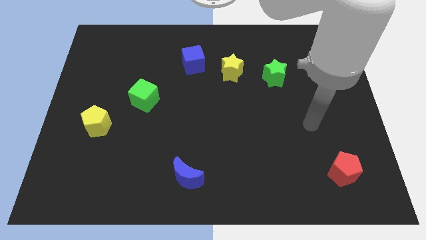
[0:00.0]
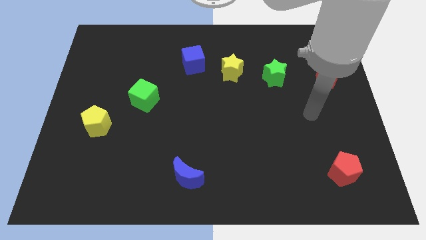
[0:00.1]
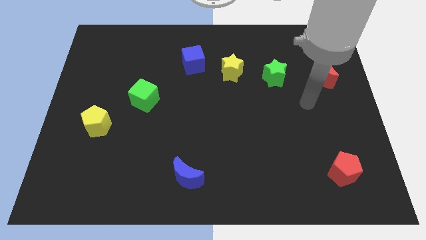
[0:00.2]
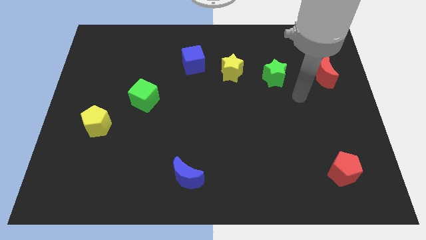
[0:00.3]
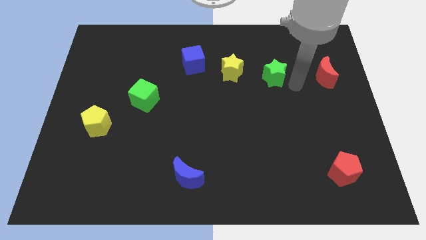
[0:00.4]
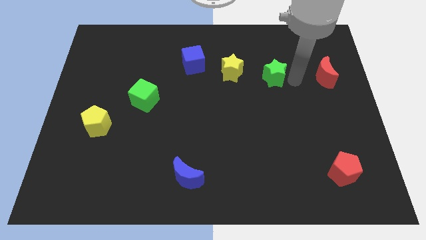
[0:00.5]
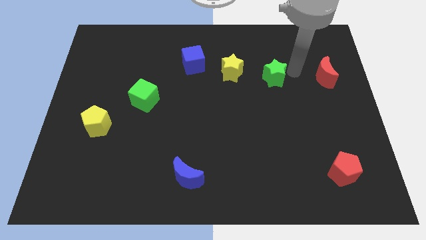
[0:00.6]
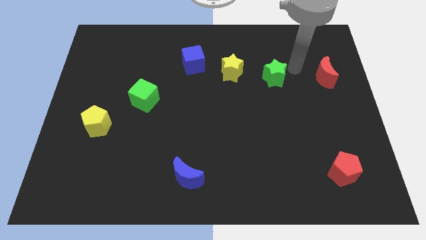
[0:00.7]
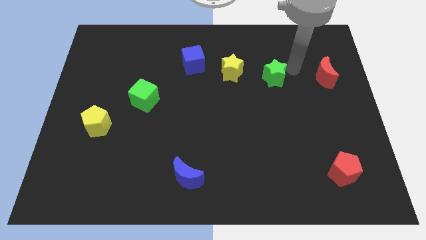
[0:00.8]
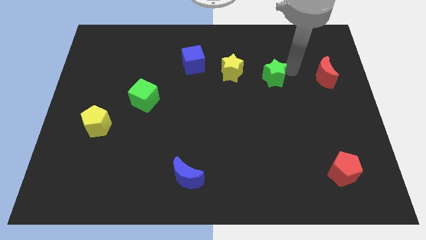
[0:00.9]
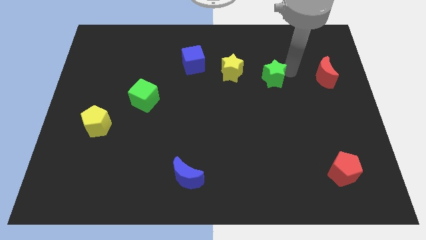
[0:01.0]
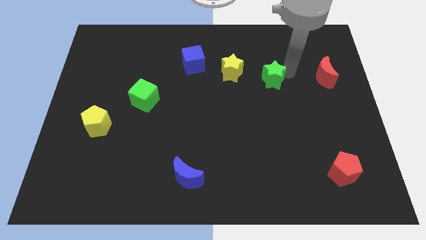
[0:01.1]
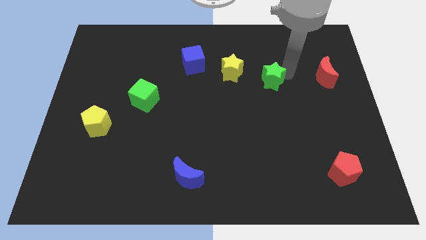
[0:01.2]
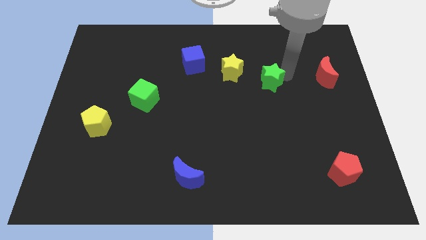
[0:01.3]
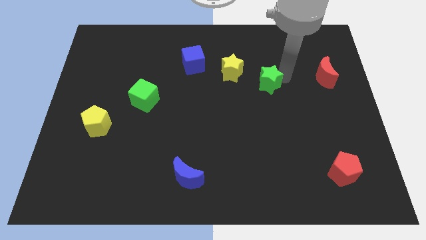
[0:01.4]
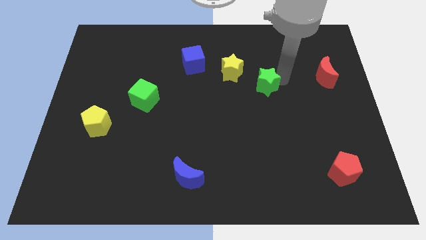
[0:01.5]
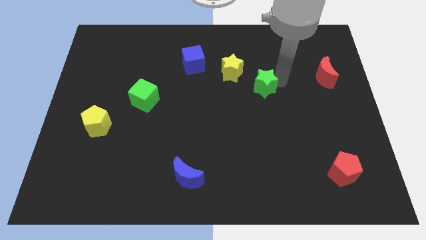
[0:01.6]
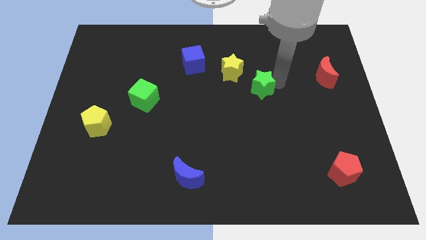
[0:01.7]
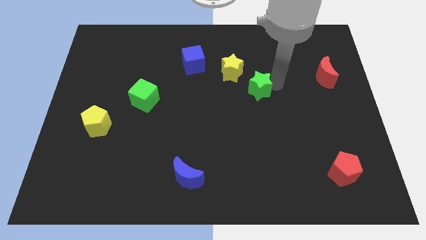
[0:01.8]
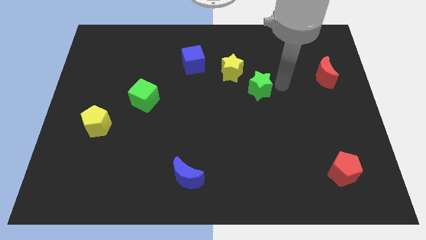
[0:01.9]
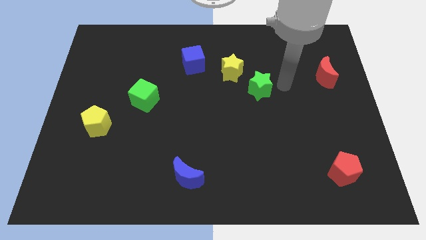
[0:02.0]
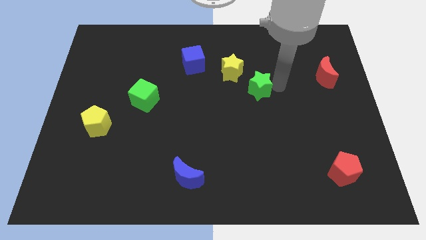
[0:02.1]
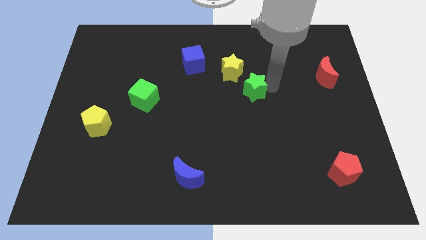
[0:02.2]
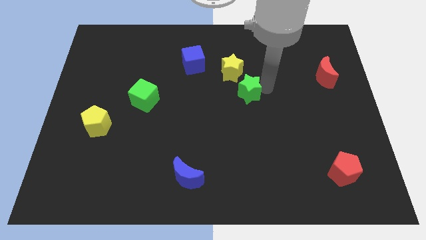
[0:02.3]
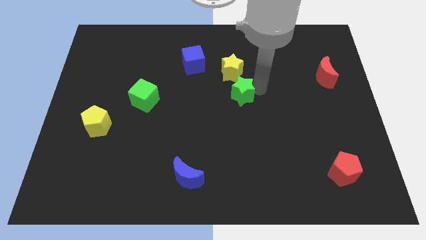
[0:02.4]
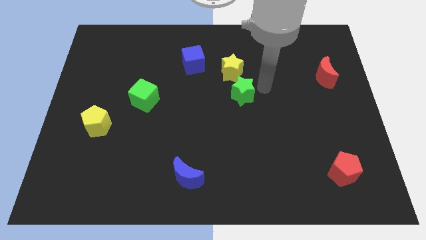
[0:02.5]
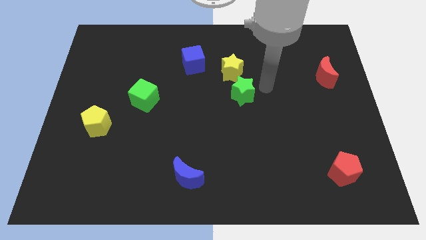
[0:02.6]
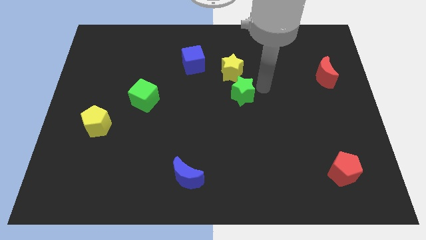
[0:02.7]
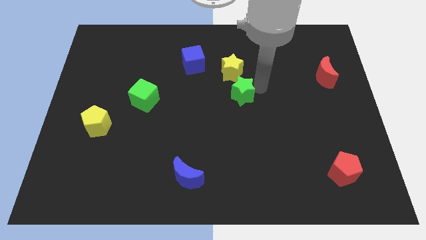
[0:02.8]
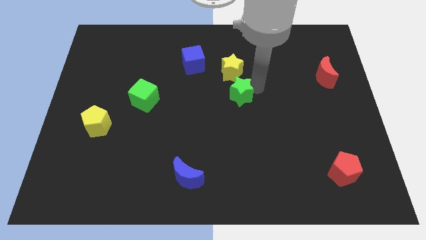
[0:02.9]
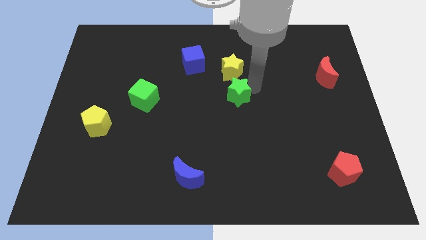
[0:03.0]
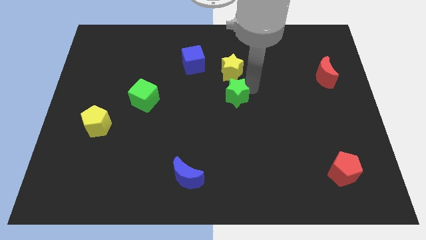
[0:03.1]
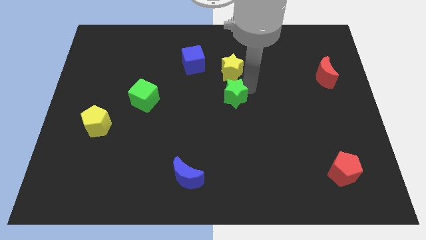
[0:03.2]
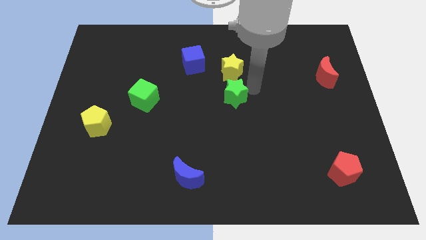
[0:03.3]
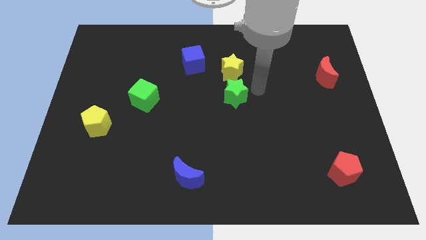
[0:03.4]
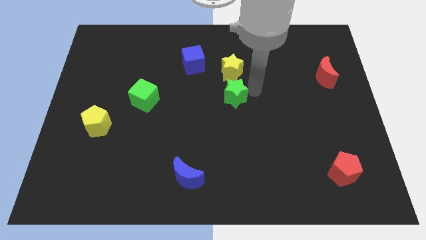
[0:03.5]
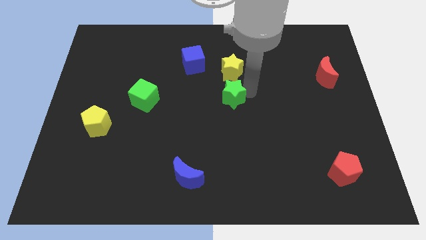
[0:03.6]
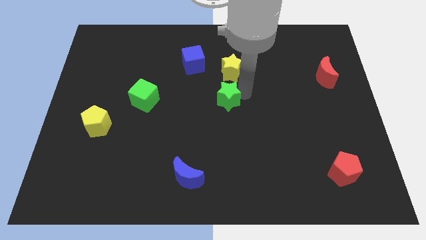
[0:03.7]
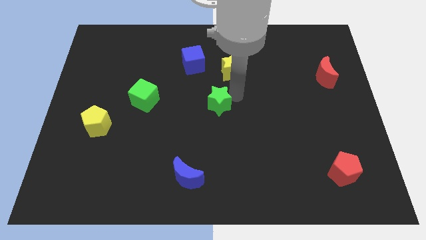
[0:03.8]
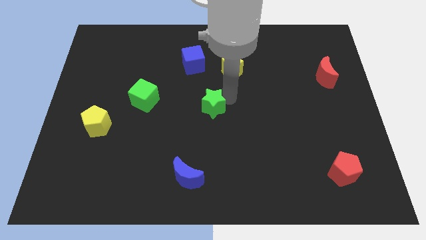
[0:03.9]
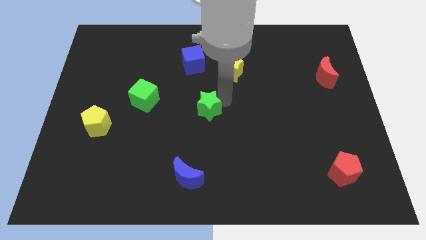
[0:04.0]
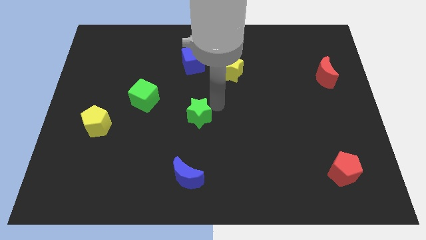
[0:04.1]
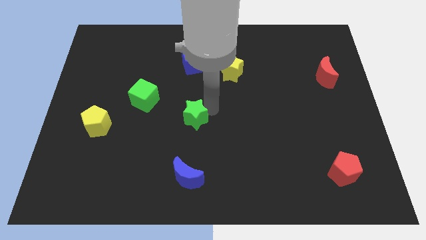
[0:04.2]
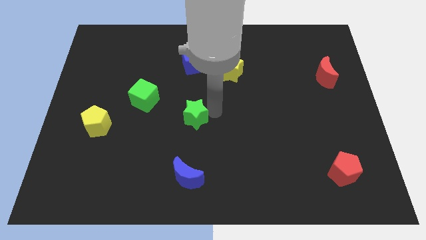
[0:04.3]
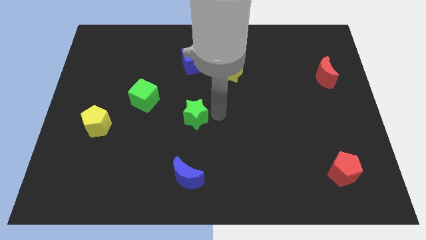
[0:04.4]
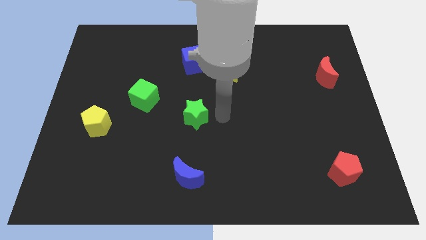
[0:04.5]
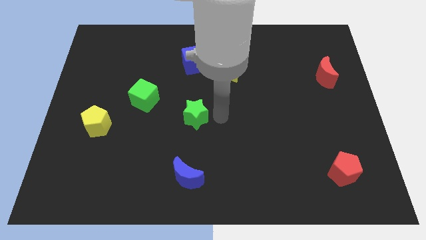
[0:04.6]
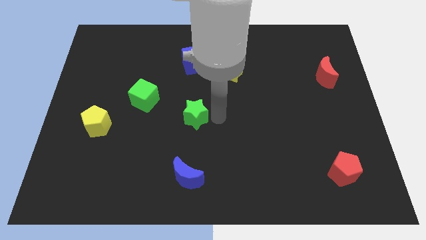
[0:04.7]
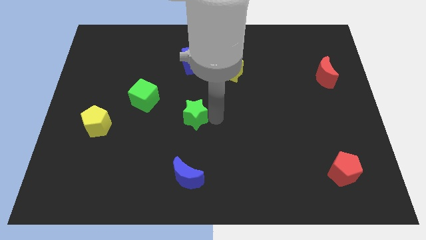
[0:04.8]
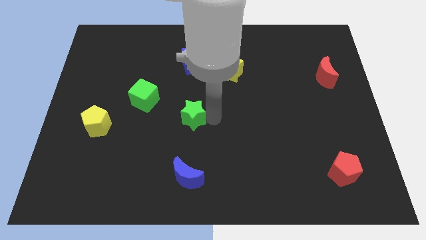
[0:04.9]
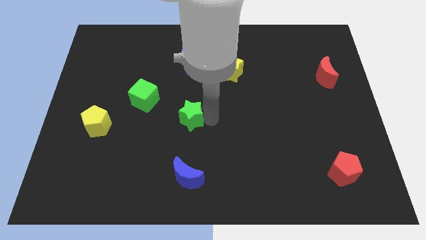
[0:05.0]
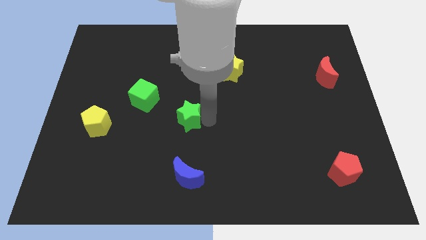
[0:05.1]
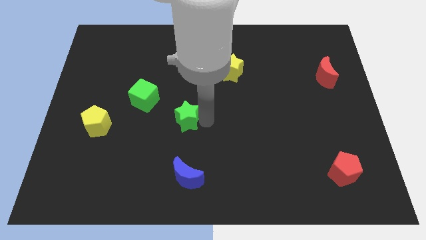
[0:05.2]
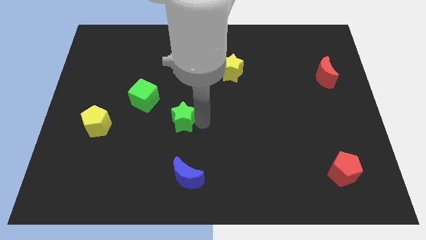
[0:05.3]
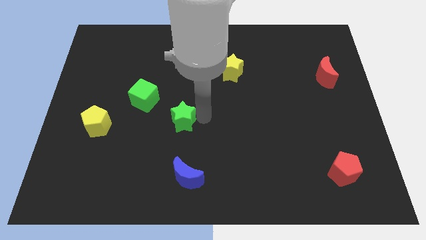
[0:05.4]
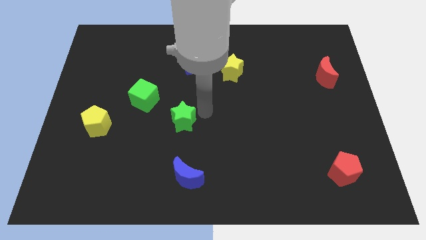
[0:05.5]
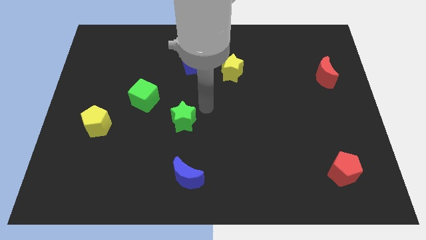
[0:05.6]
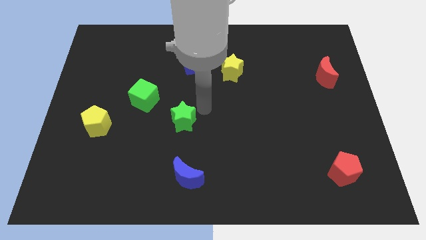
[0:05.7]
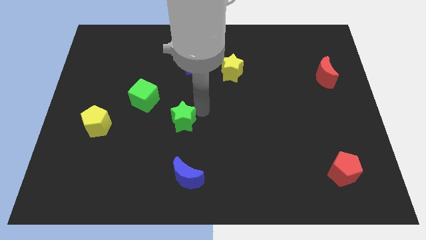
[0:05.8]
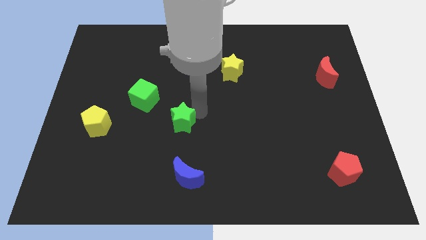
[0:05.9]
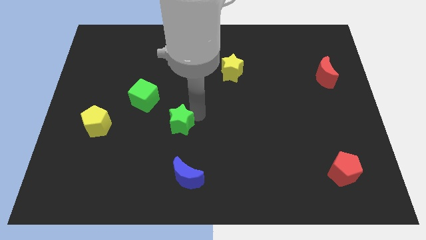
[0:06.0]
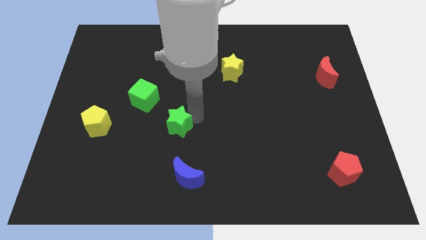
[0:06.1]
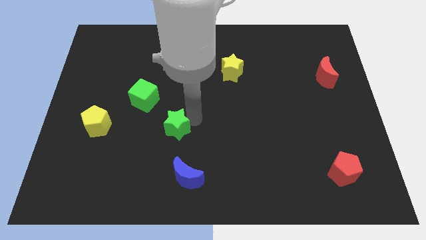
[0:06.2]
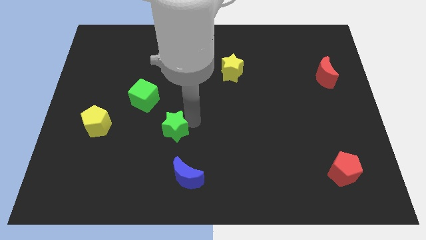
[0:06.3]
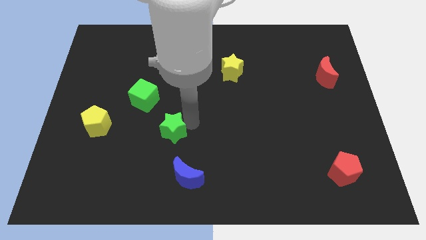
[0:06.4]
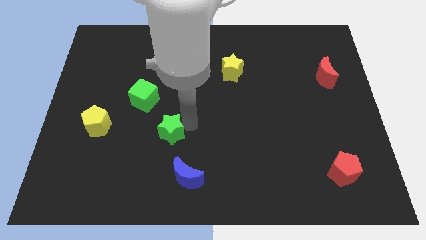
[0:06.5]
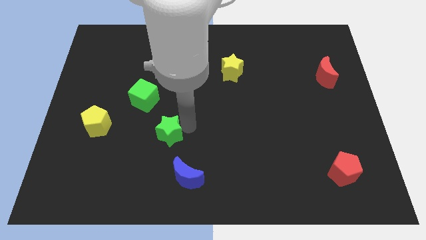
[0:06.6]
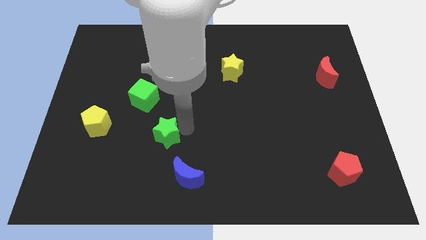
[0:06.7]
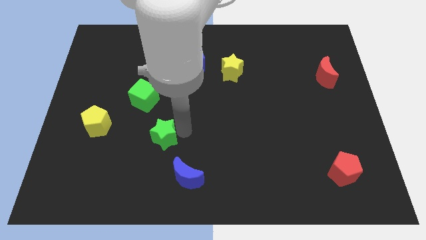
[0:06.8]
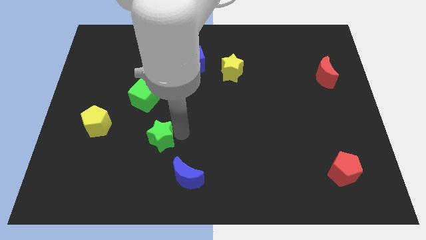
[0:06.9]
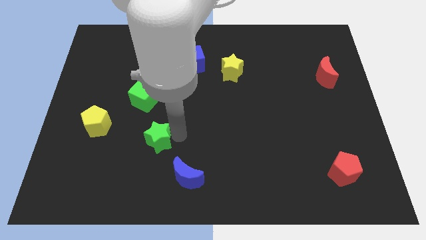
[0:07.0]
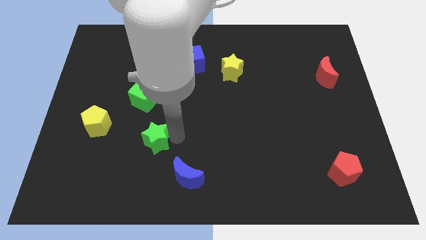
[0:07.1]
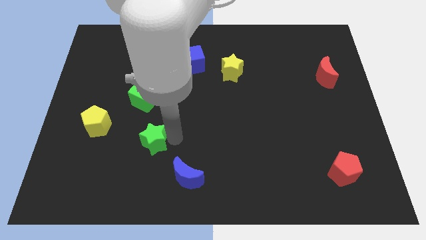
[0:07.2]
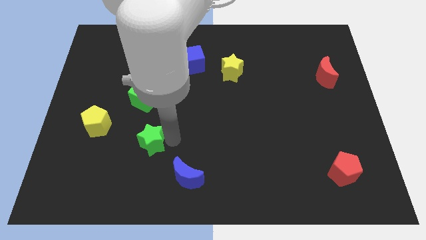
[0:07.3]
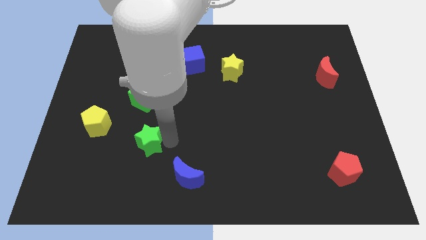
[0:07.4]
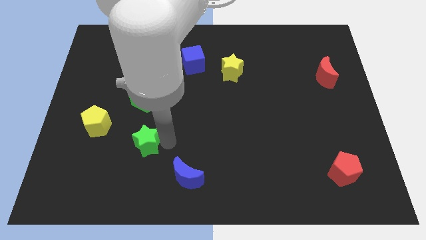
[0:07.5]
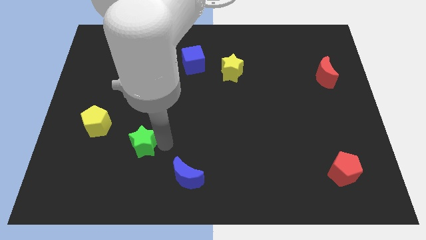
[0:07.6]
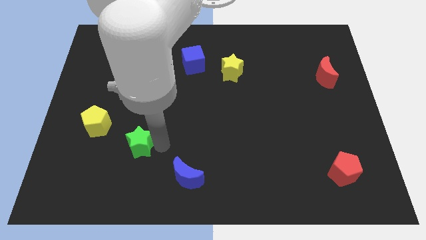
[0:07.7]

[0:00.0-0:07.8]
push the green star to the bottom right of the yellow pentagon
